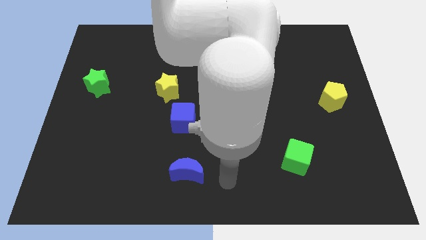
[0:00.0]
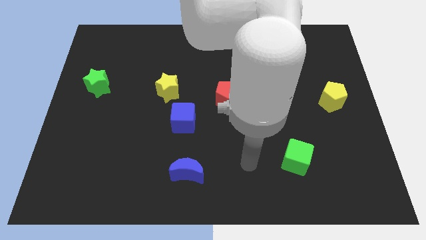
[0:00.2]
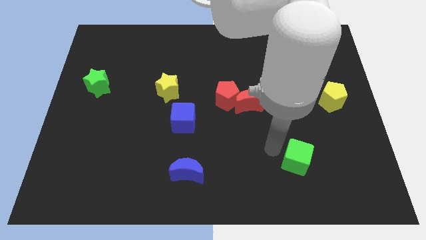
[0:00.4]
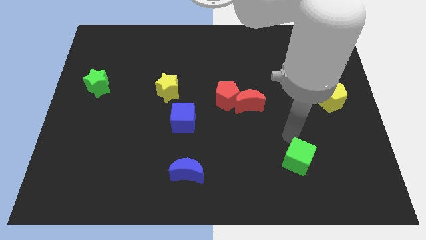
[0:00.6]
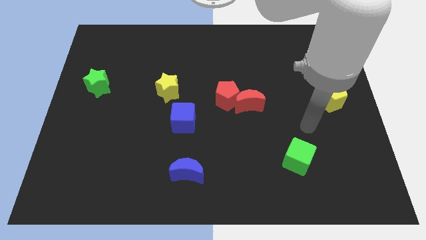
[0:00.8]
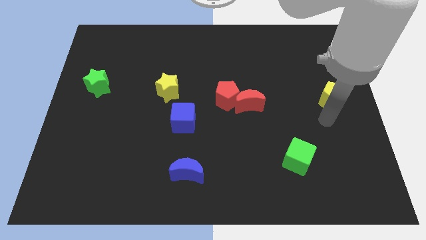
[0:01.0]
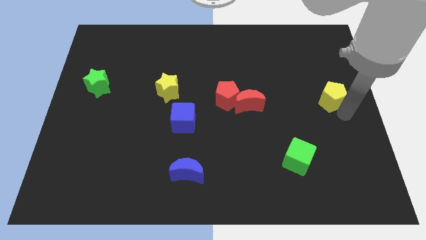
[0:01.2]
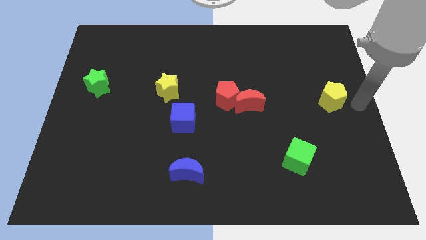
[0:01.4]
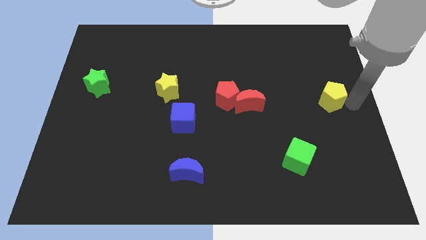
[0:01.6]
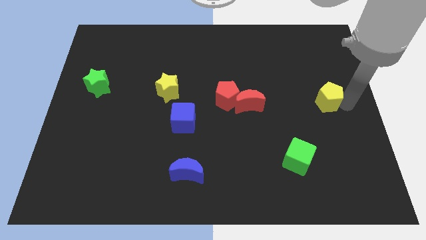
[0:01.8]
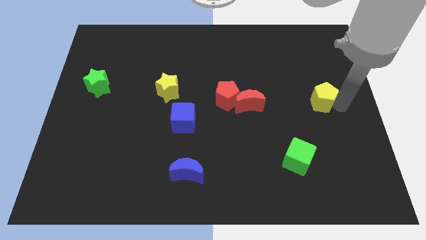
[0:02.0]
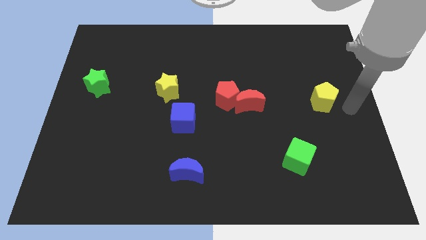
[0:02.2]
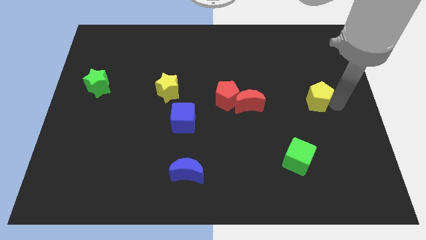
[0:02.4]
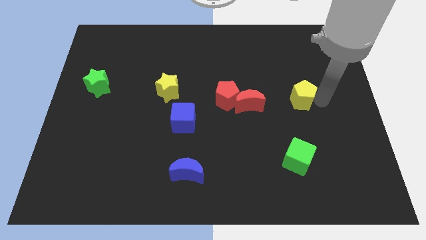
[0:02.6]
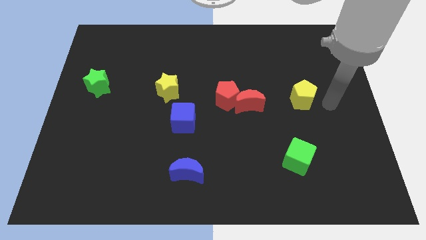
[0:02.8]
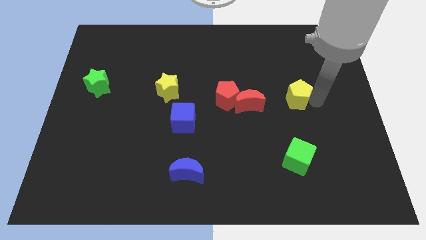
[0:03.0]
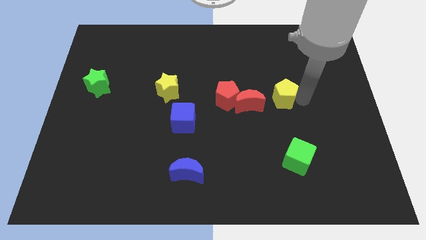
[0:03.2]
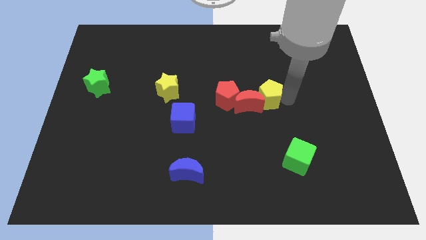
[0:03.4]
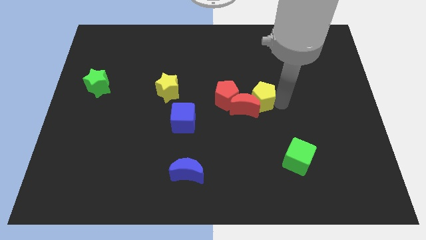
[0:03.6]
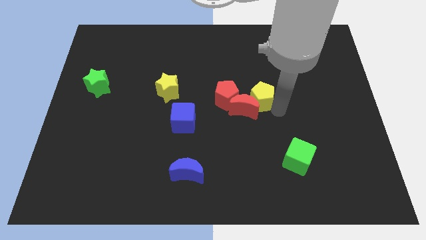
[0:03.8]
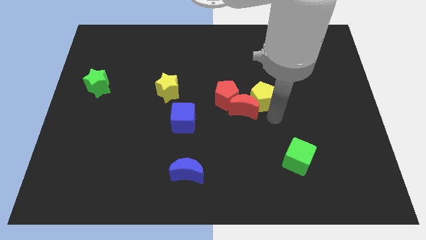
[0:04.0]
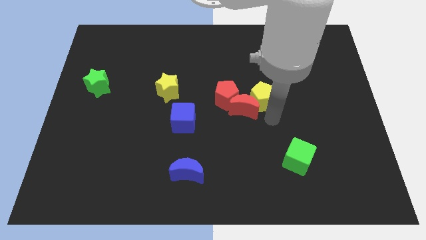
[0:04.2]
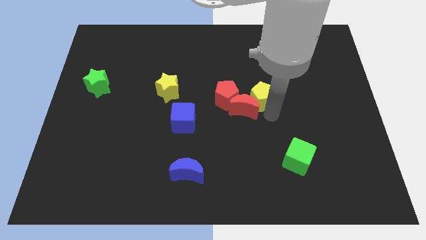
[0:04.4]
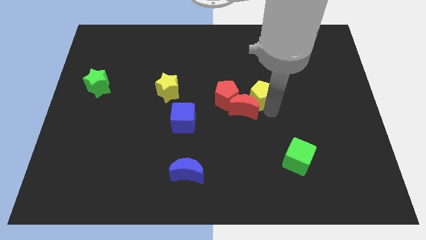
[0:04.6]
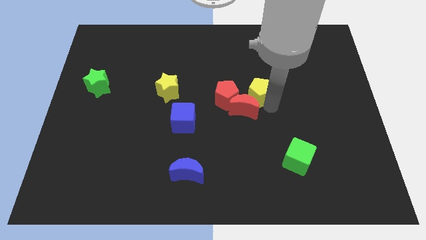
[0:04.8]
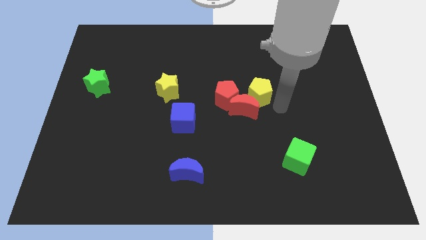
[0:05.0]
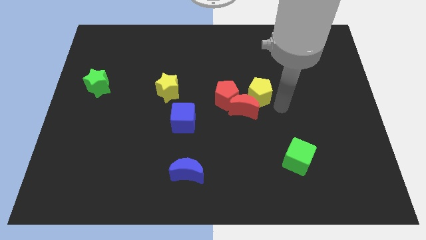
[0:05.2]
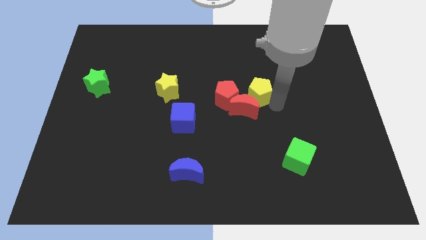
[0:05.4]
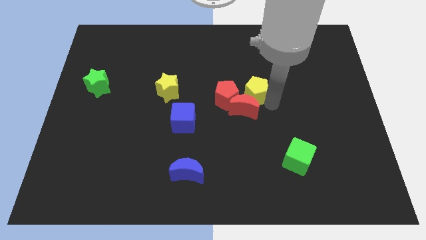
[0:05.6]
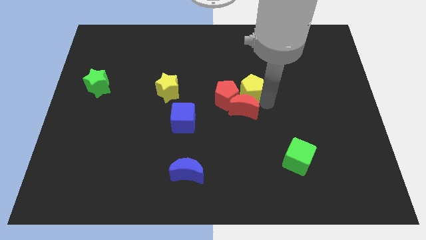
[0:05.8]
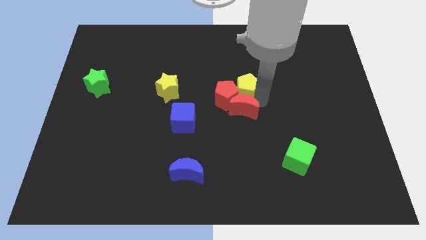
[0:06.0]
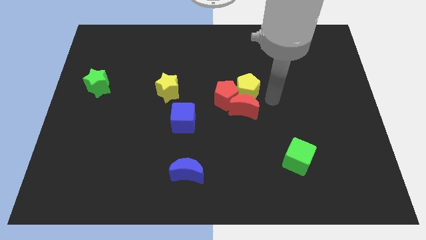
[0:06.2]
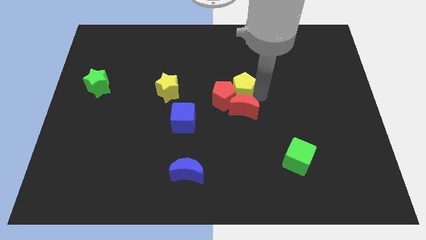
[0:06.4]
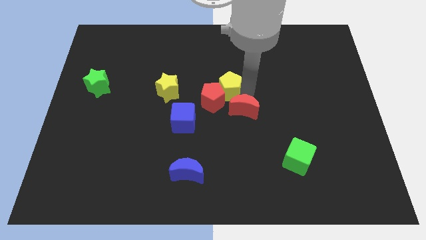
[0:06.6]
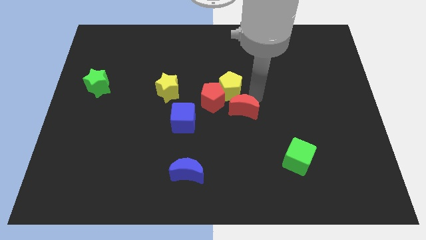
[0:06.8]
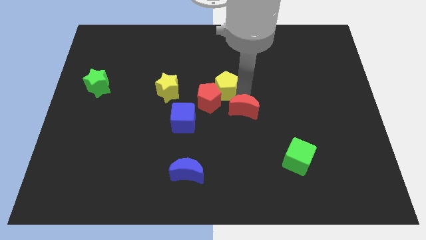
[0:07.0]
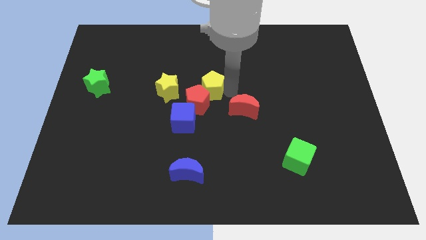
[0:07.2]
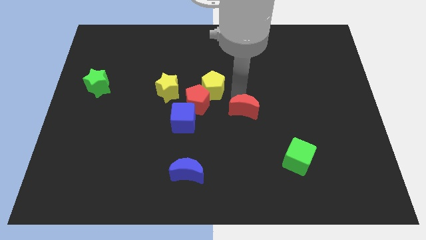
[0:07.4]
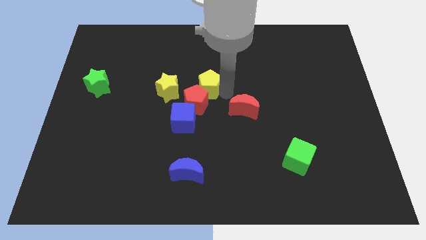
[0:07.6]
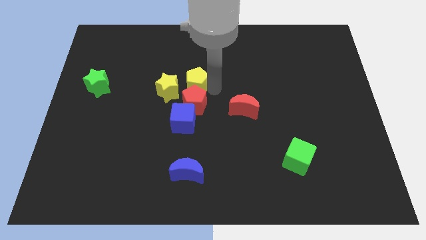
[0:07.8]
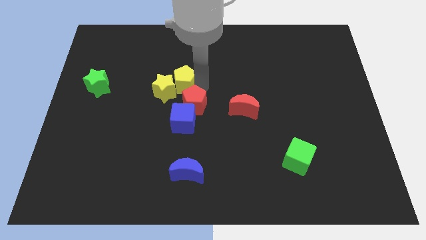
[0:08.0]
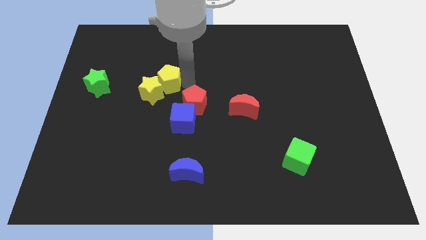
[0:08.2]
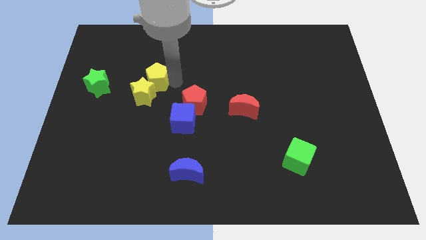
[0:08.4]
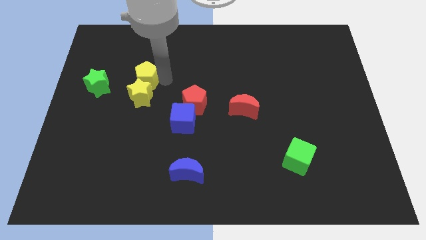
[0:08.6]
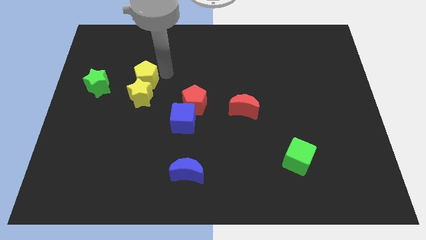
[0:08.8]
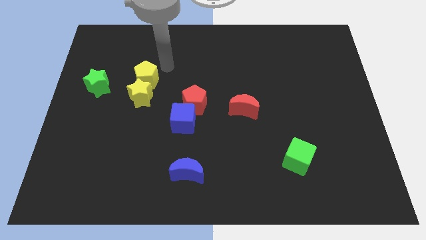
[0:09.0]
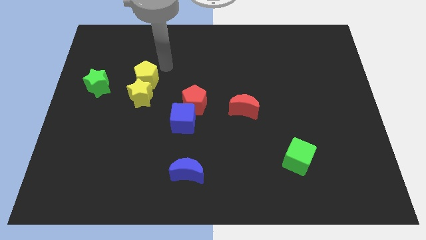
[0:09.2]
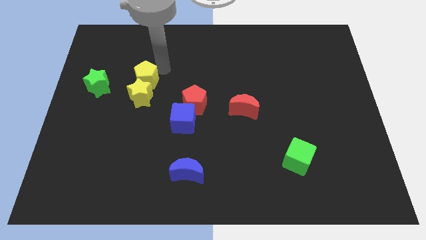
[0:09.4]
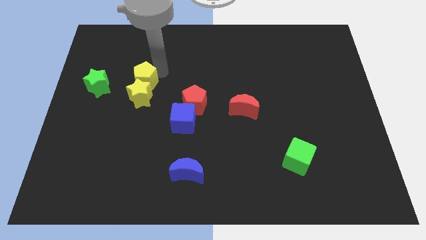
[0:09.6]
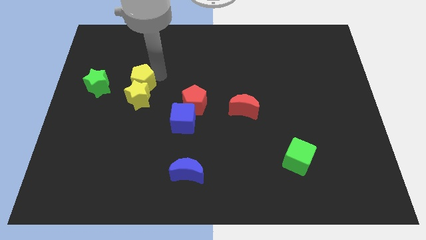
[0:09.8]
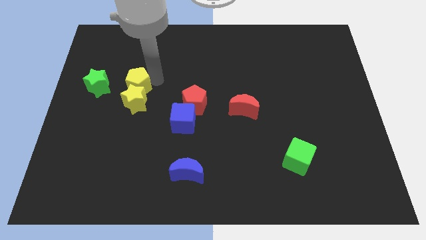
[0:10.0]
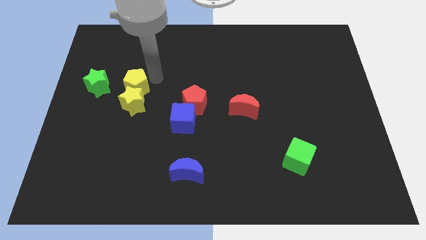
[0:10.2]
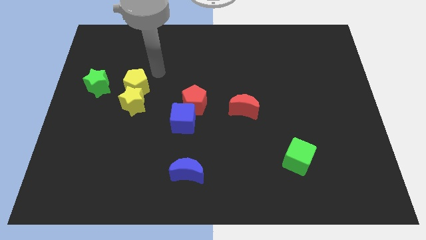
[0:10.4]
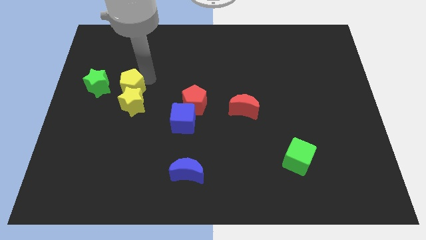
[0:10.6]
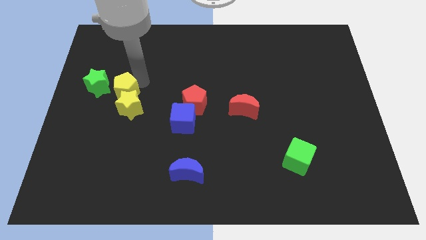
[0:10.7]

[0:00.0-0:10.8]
push the yellow pentagon to the bottom right of the green star
